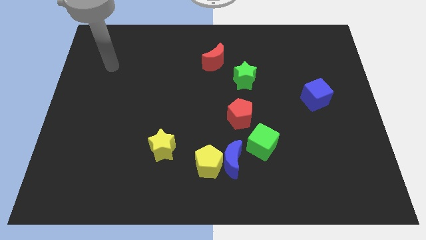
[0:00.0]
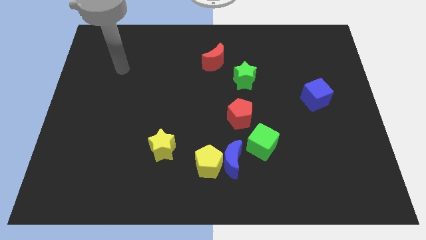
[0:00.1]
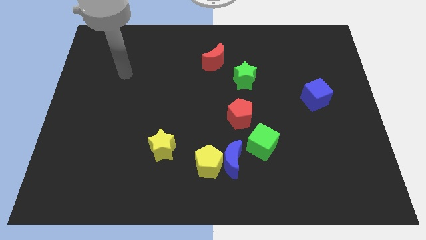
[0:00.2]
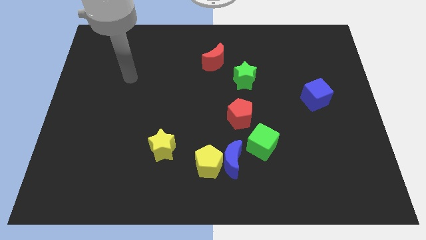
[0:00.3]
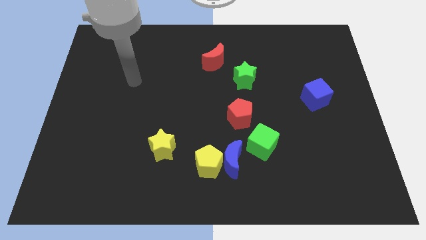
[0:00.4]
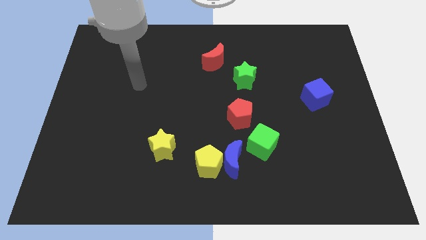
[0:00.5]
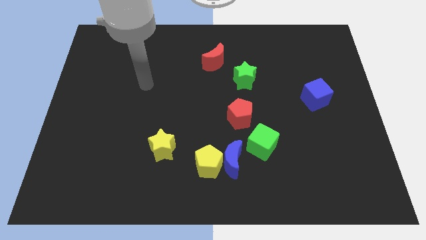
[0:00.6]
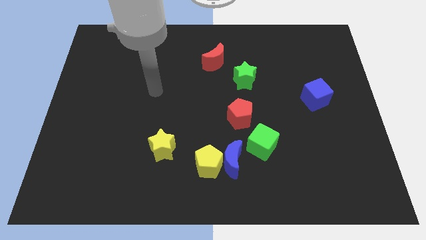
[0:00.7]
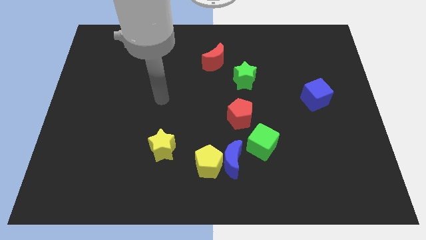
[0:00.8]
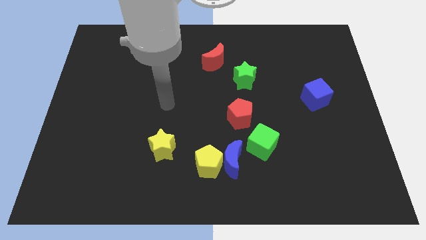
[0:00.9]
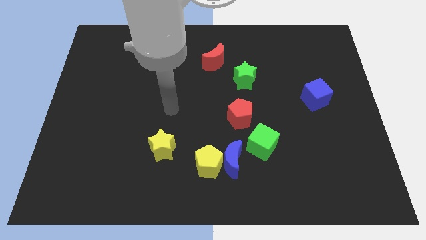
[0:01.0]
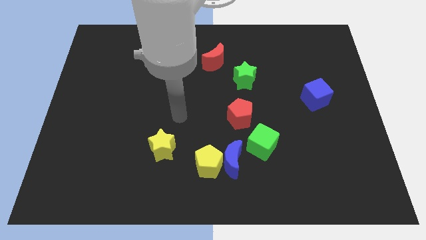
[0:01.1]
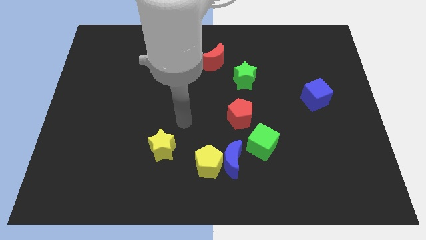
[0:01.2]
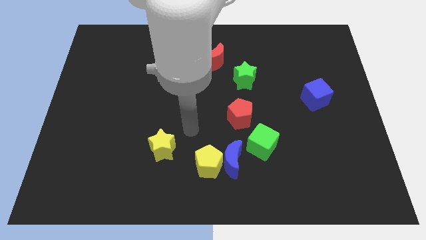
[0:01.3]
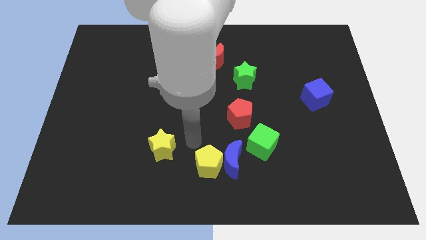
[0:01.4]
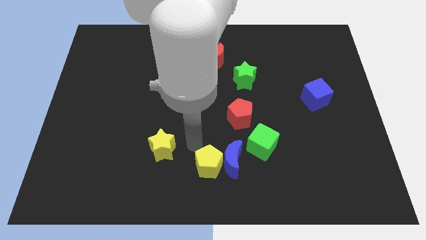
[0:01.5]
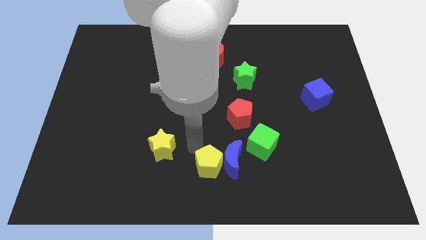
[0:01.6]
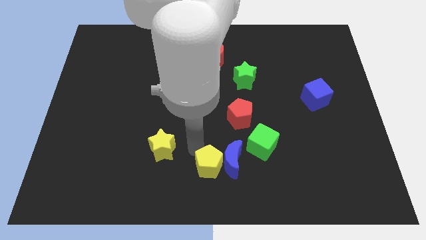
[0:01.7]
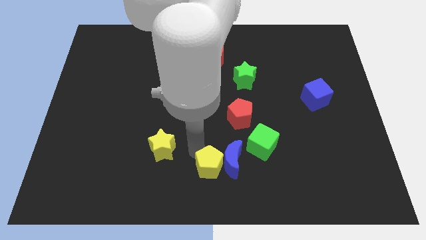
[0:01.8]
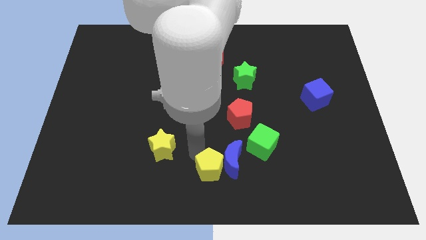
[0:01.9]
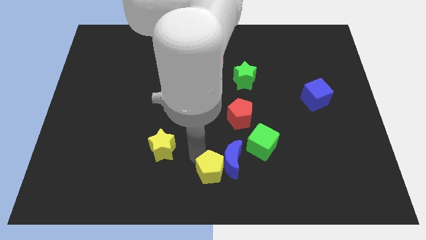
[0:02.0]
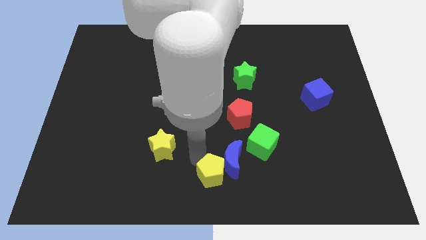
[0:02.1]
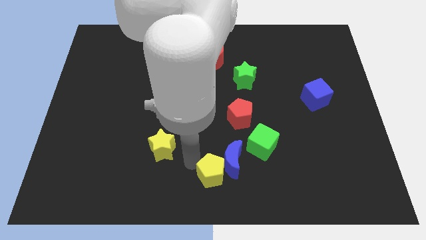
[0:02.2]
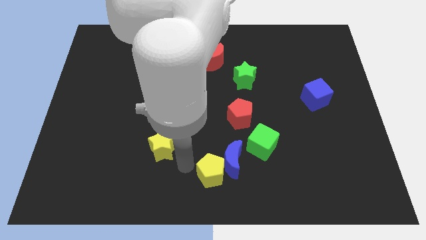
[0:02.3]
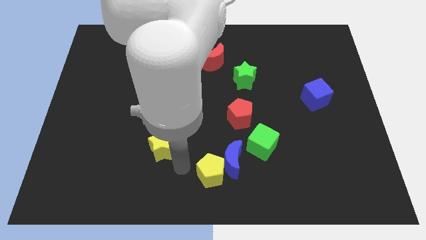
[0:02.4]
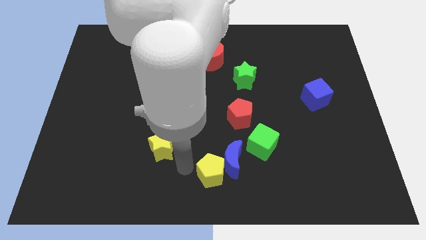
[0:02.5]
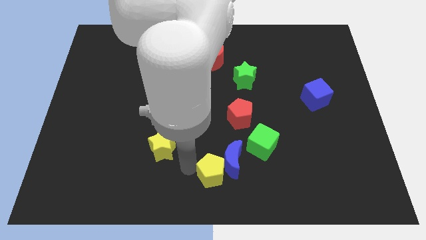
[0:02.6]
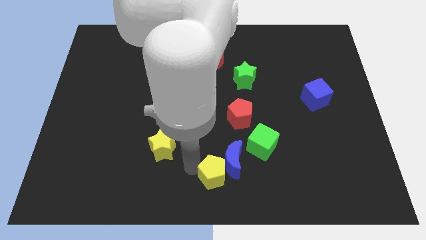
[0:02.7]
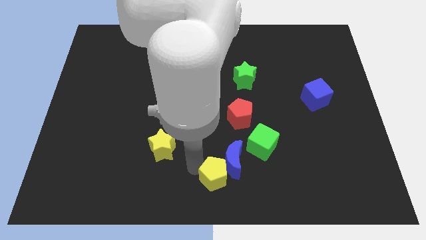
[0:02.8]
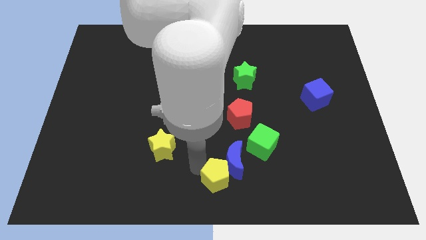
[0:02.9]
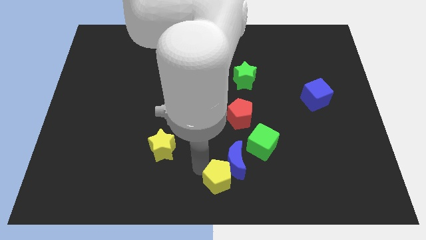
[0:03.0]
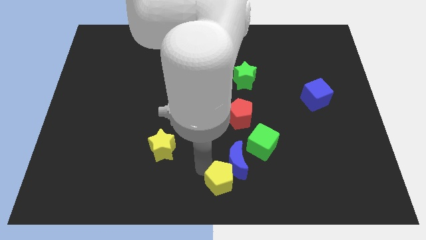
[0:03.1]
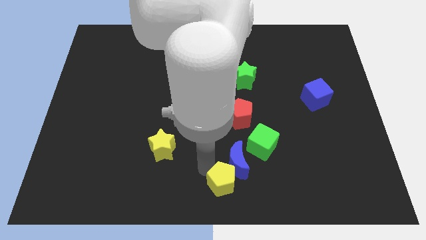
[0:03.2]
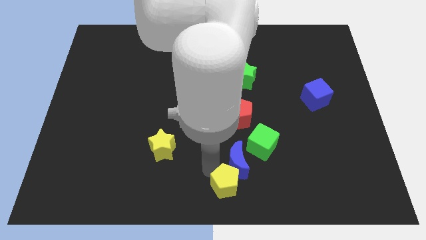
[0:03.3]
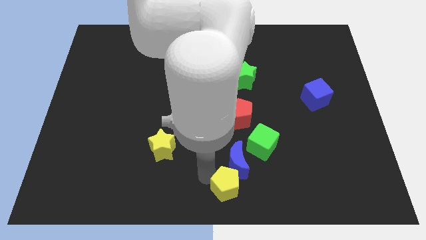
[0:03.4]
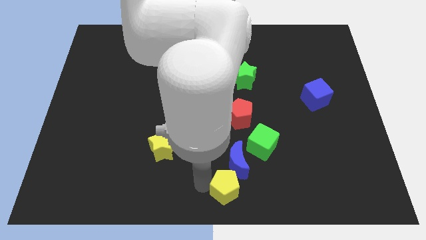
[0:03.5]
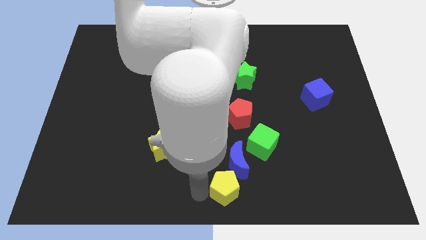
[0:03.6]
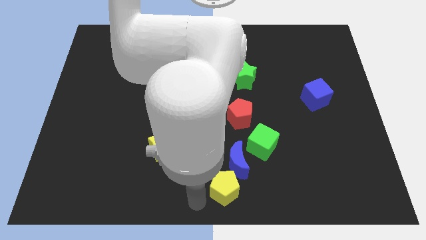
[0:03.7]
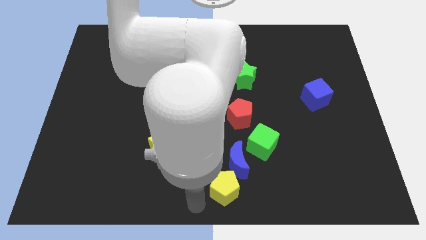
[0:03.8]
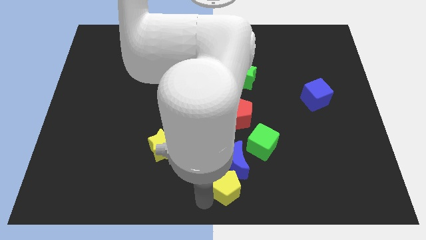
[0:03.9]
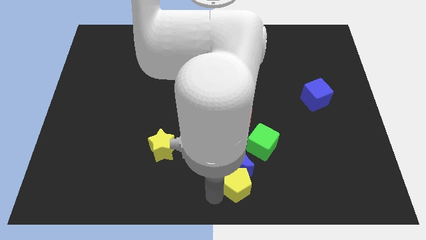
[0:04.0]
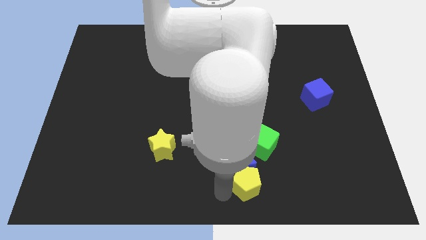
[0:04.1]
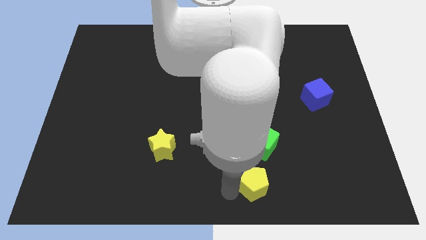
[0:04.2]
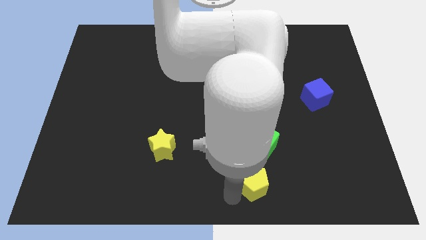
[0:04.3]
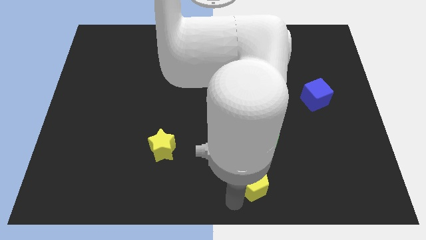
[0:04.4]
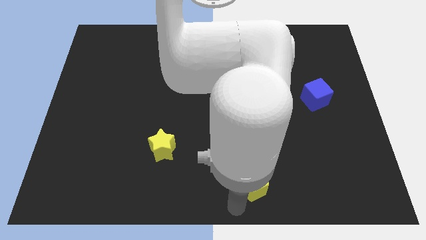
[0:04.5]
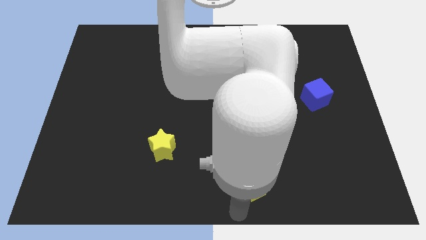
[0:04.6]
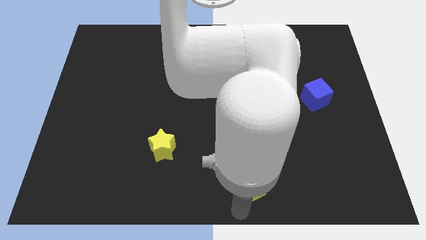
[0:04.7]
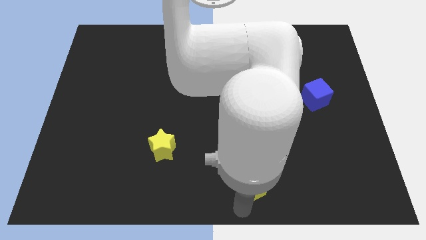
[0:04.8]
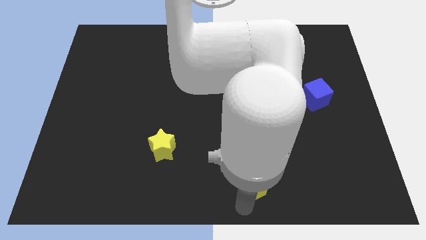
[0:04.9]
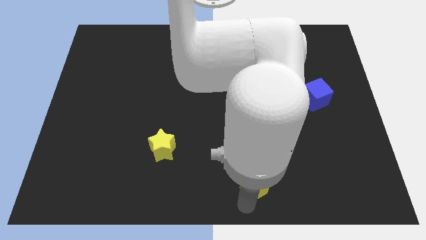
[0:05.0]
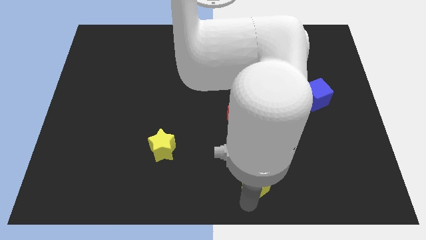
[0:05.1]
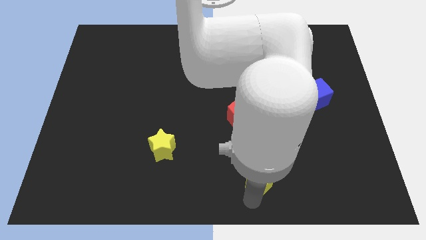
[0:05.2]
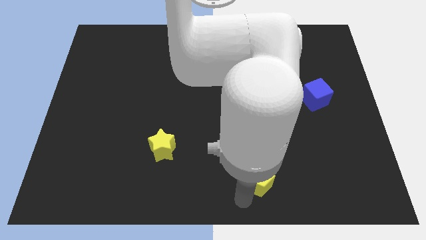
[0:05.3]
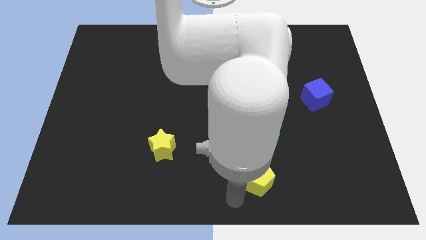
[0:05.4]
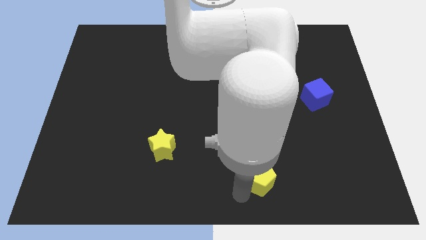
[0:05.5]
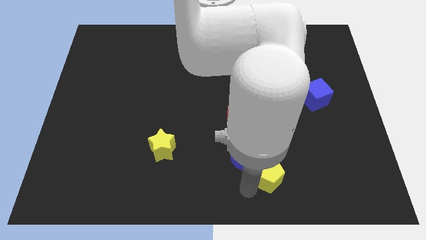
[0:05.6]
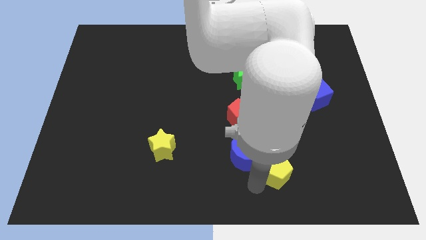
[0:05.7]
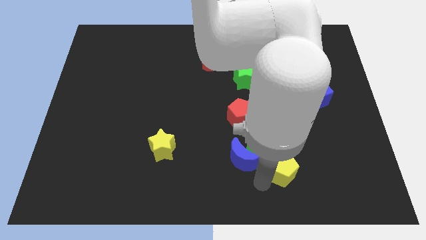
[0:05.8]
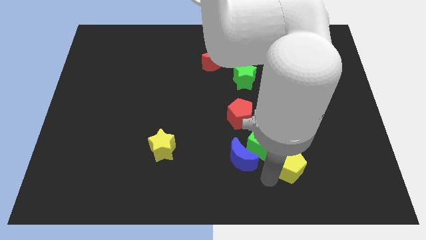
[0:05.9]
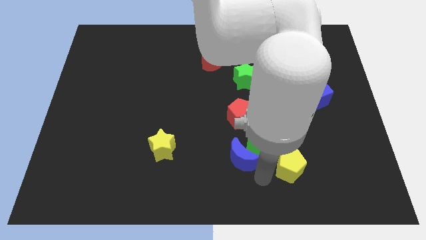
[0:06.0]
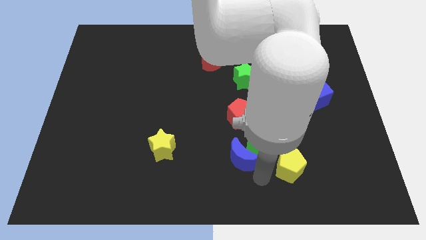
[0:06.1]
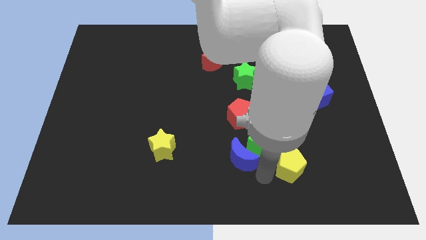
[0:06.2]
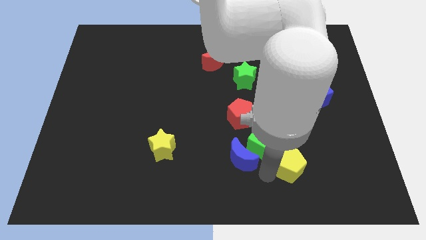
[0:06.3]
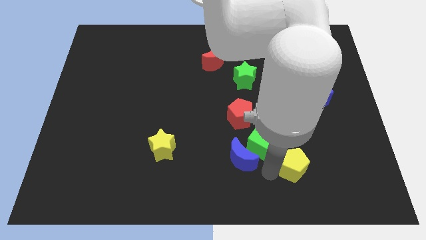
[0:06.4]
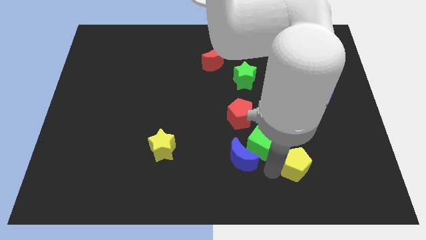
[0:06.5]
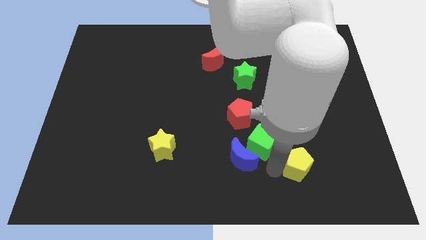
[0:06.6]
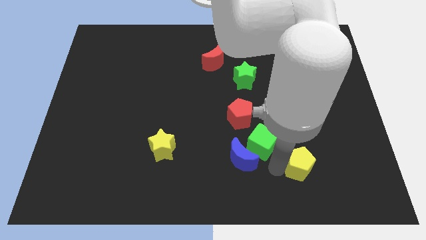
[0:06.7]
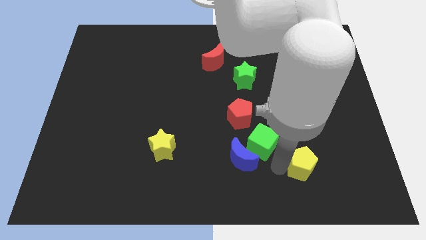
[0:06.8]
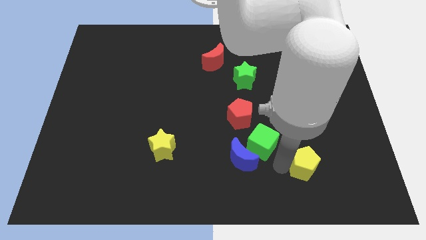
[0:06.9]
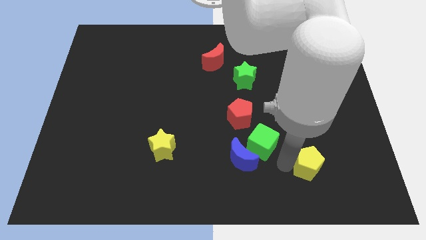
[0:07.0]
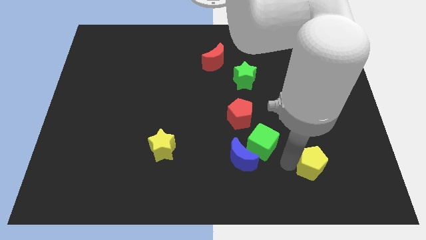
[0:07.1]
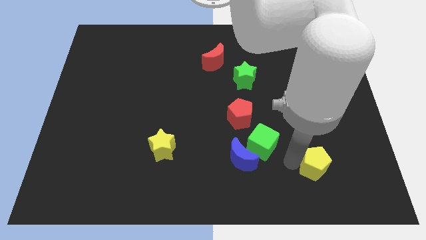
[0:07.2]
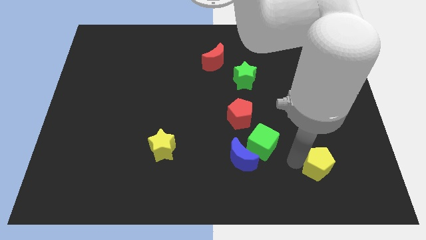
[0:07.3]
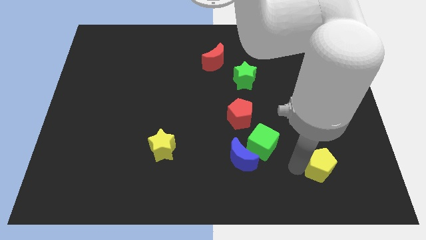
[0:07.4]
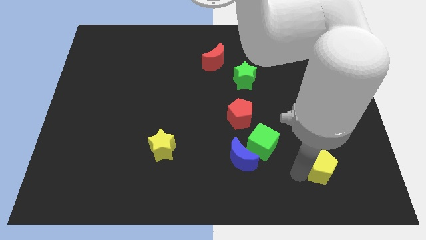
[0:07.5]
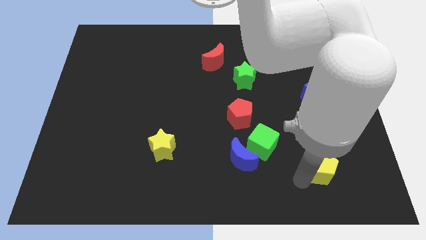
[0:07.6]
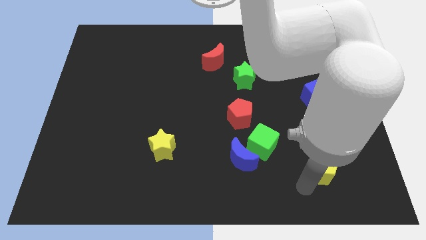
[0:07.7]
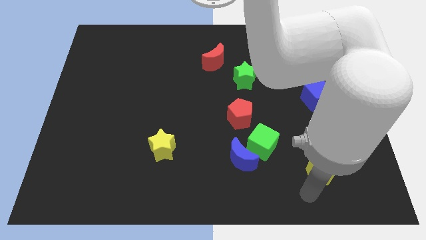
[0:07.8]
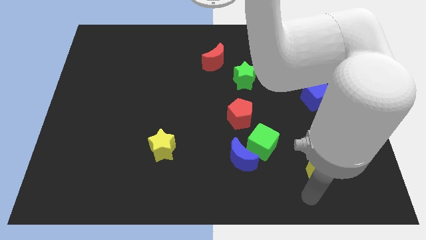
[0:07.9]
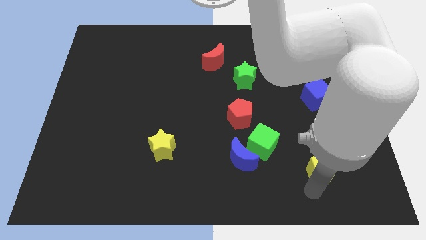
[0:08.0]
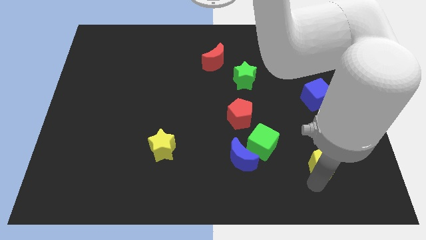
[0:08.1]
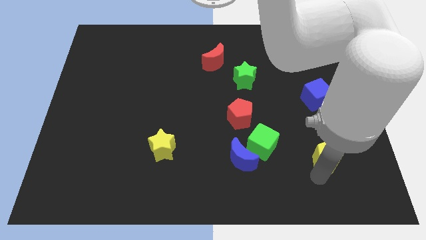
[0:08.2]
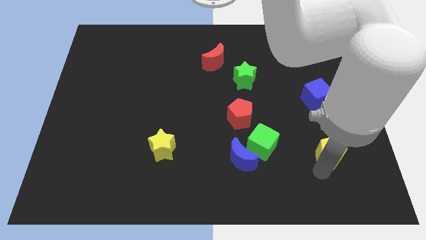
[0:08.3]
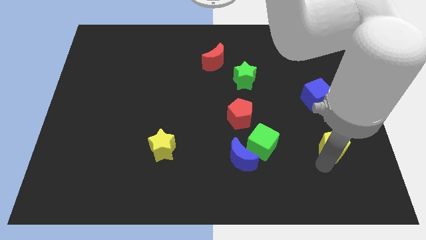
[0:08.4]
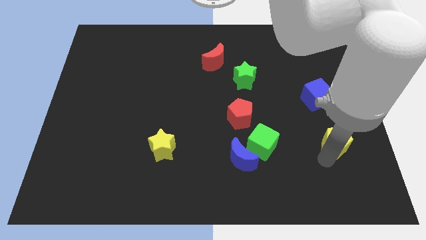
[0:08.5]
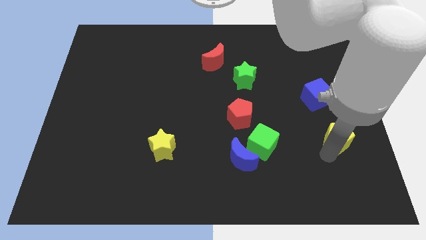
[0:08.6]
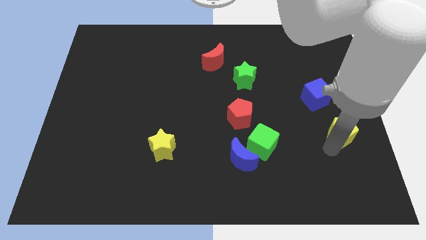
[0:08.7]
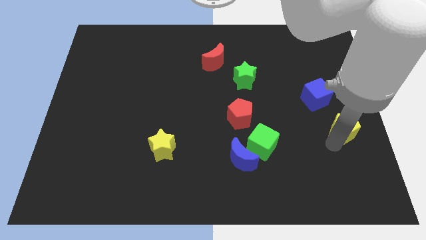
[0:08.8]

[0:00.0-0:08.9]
put the yellow pentagon to the right side
